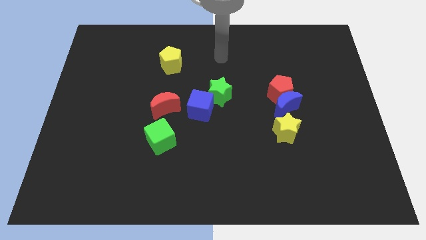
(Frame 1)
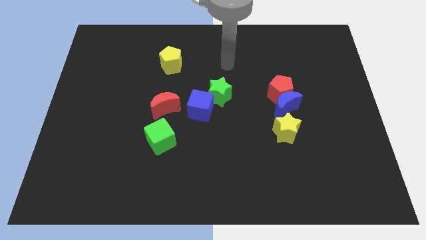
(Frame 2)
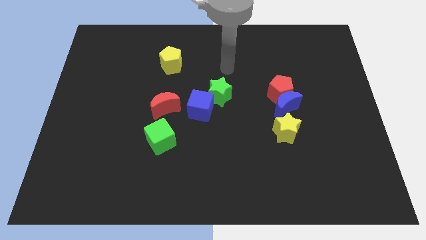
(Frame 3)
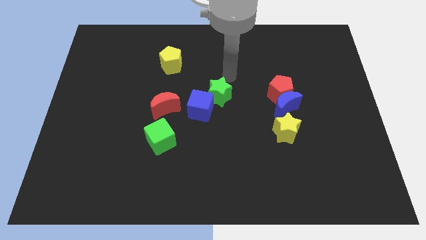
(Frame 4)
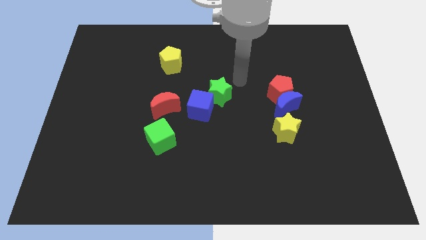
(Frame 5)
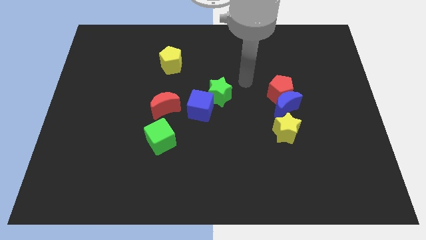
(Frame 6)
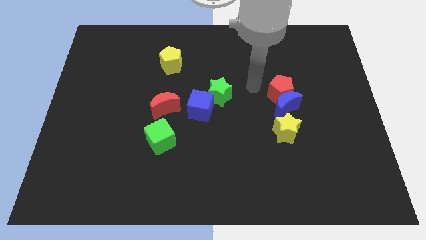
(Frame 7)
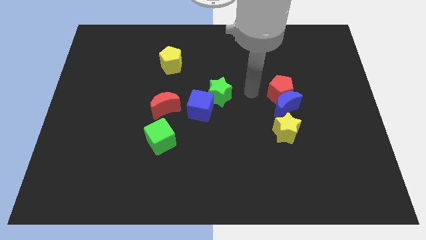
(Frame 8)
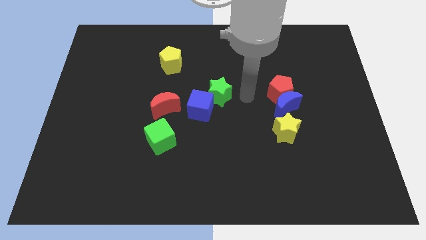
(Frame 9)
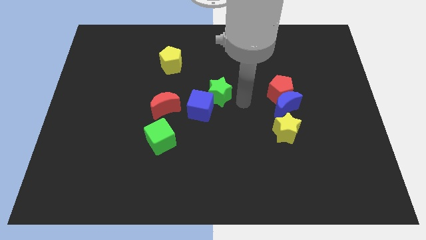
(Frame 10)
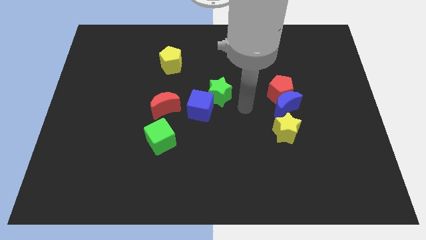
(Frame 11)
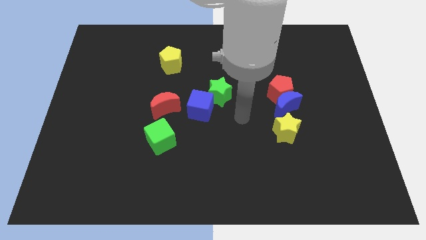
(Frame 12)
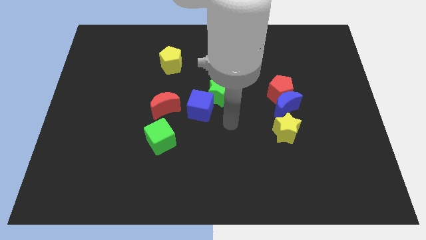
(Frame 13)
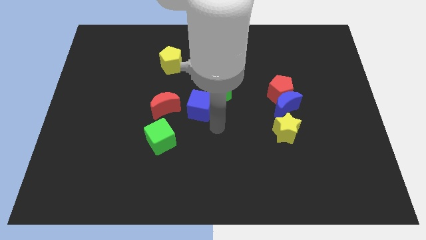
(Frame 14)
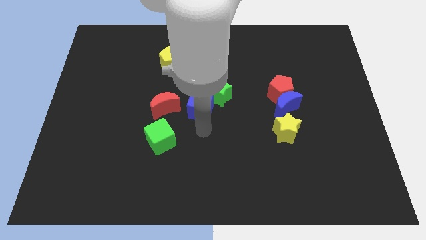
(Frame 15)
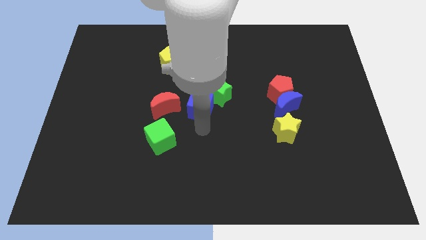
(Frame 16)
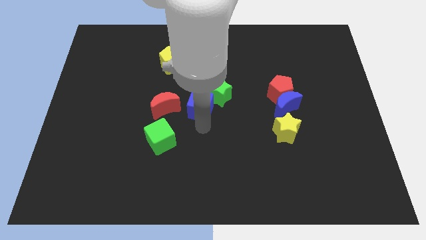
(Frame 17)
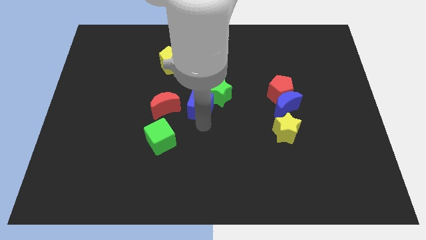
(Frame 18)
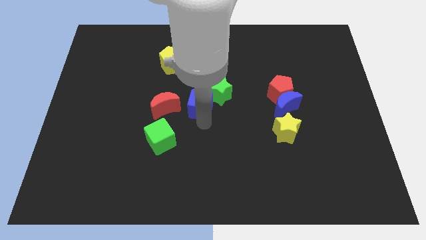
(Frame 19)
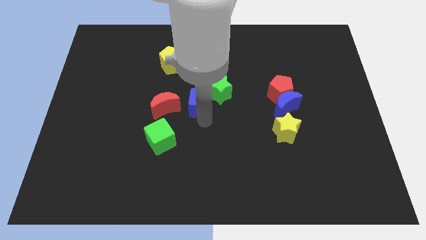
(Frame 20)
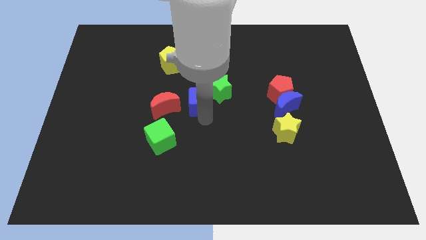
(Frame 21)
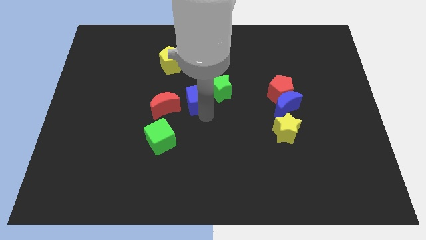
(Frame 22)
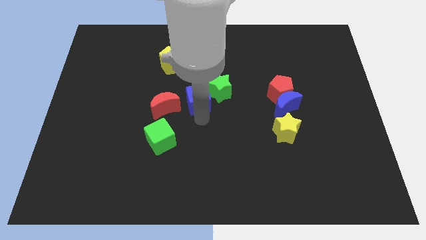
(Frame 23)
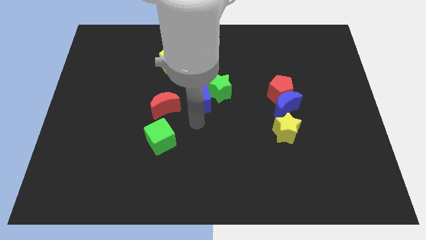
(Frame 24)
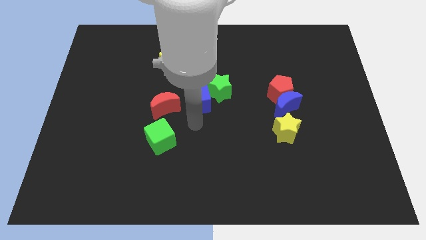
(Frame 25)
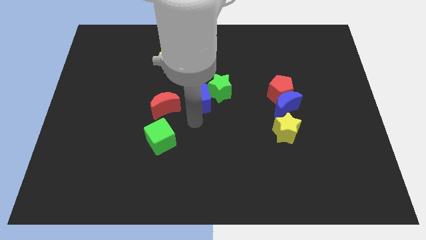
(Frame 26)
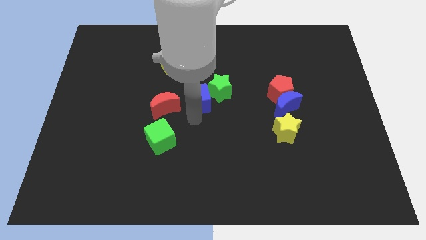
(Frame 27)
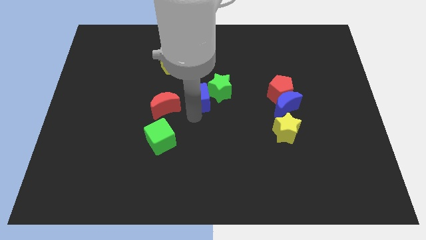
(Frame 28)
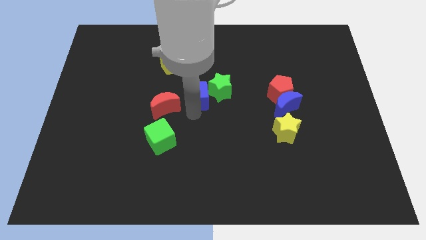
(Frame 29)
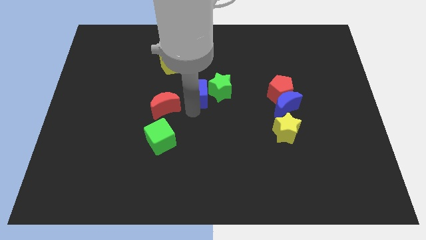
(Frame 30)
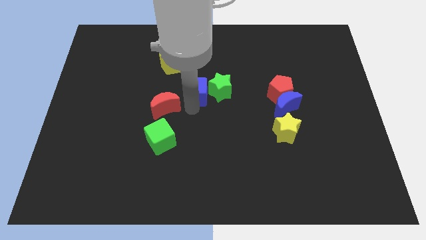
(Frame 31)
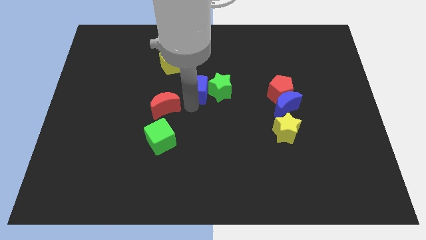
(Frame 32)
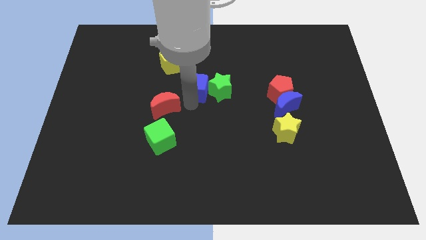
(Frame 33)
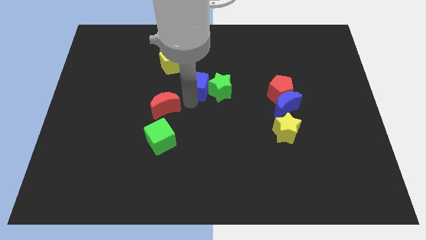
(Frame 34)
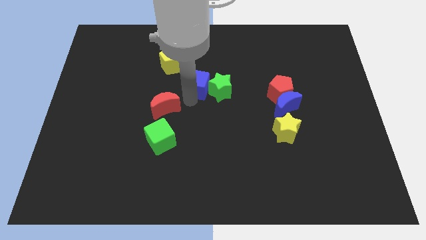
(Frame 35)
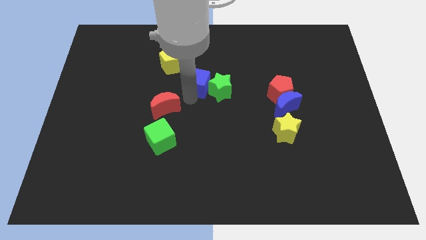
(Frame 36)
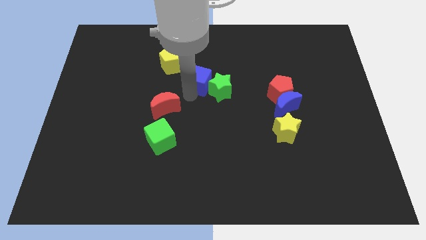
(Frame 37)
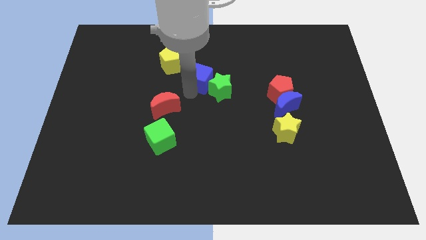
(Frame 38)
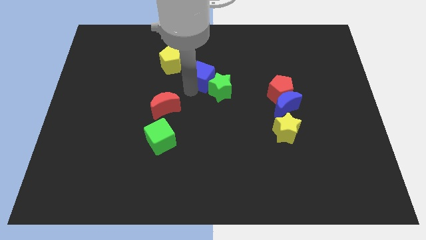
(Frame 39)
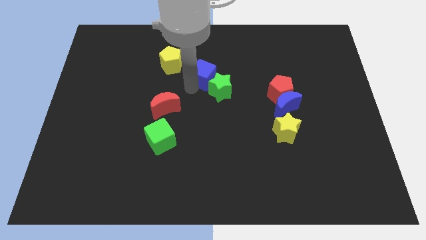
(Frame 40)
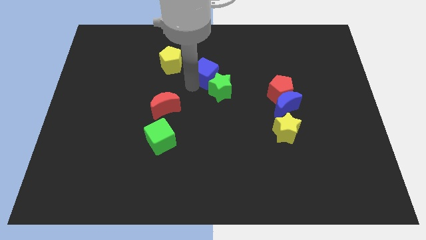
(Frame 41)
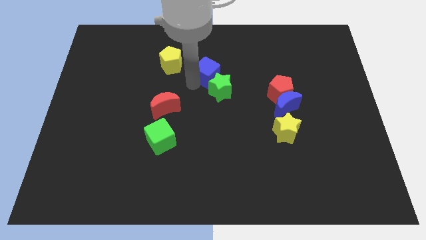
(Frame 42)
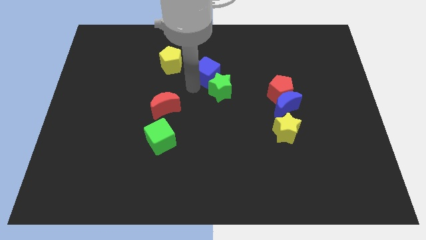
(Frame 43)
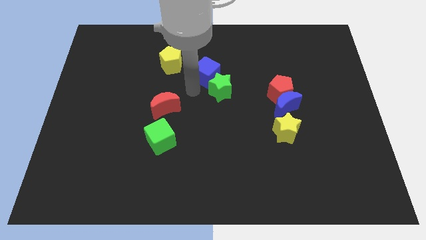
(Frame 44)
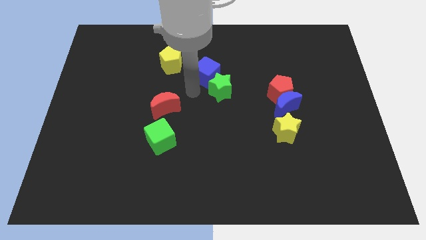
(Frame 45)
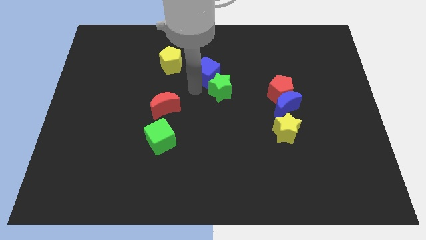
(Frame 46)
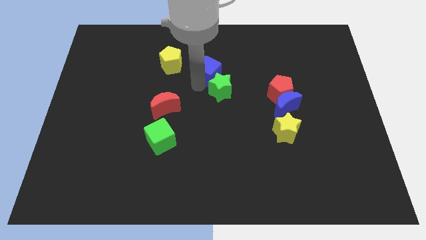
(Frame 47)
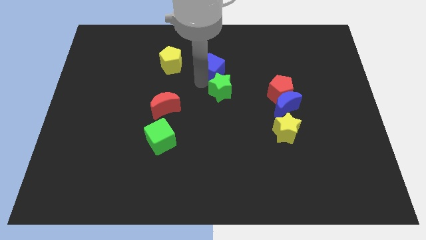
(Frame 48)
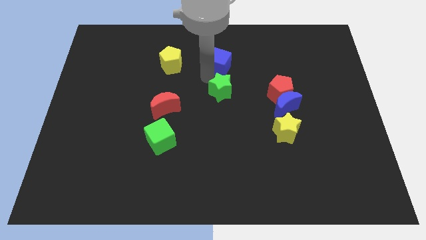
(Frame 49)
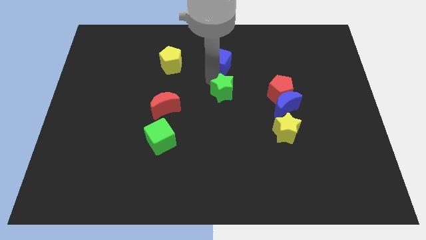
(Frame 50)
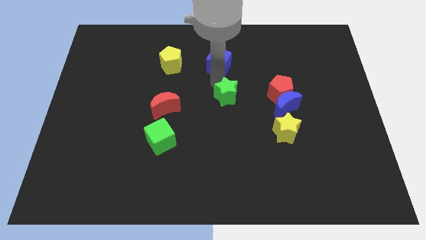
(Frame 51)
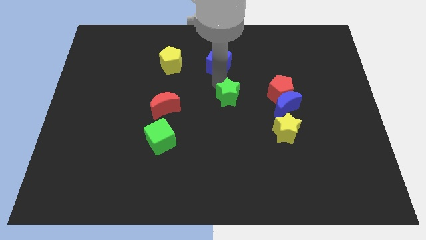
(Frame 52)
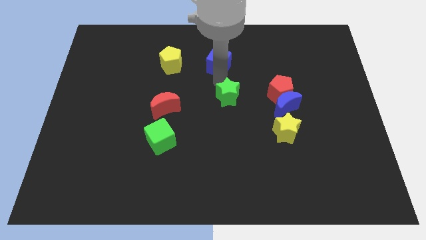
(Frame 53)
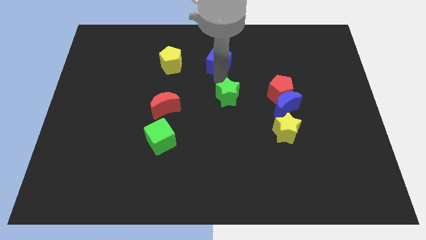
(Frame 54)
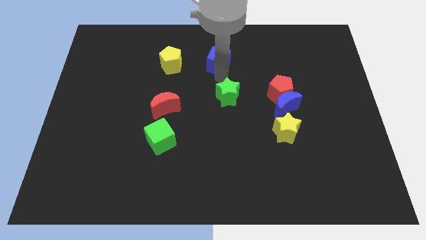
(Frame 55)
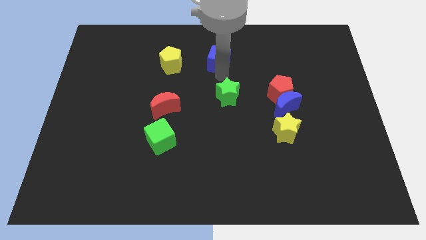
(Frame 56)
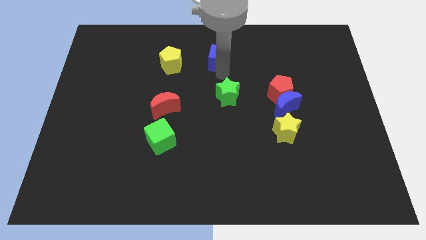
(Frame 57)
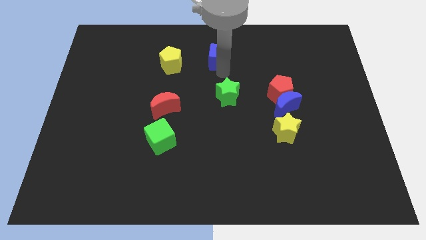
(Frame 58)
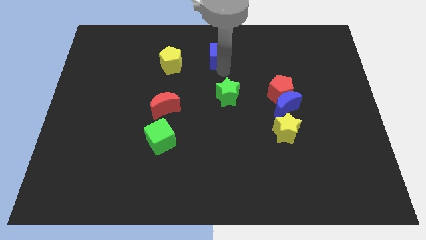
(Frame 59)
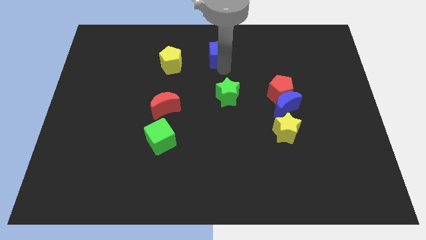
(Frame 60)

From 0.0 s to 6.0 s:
put the blue cube to the towards your base

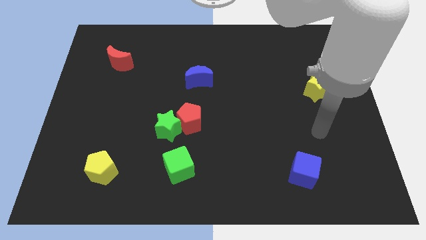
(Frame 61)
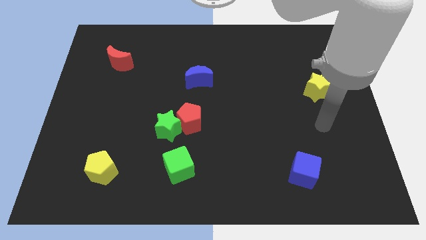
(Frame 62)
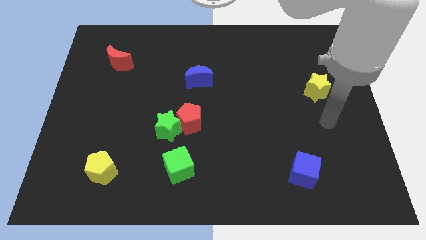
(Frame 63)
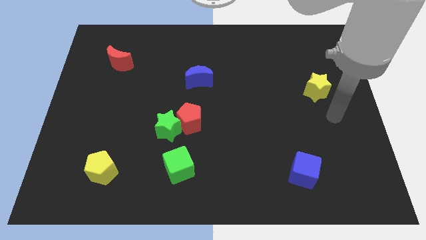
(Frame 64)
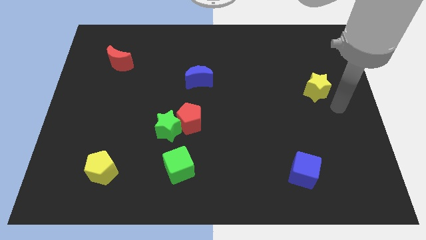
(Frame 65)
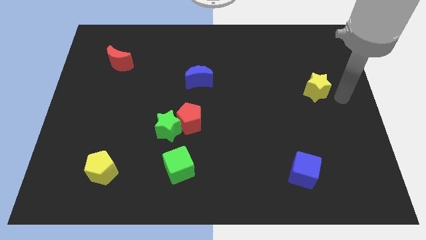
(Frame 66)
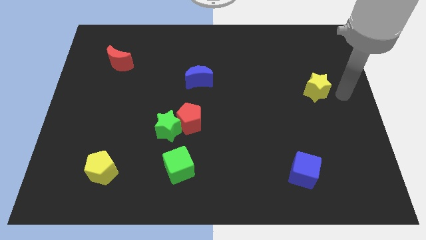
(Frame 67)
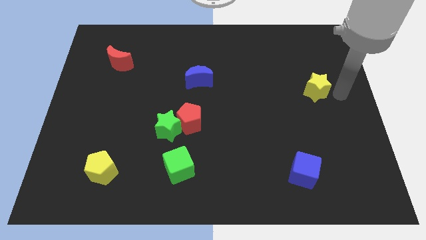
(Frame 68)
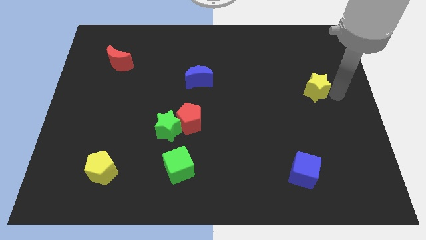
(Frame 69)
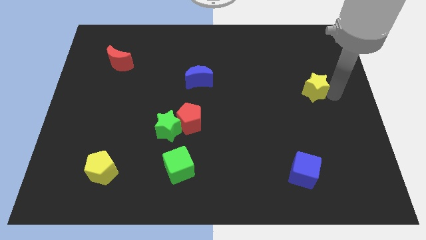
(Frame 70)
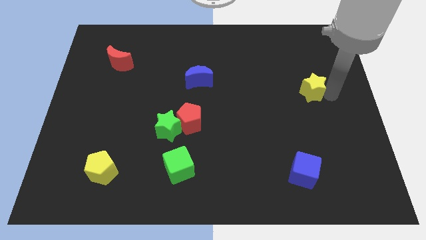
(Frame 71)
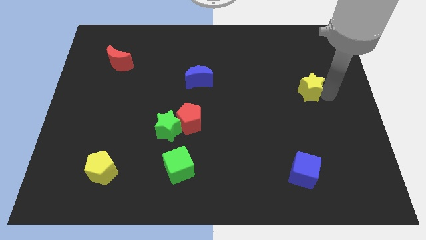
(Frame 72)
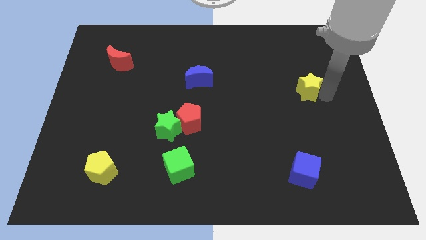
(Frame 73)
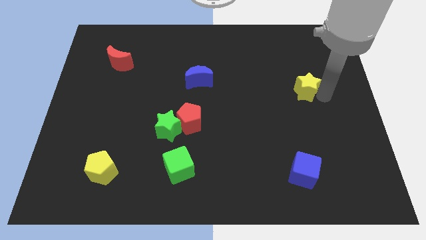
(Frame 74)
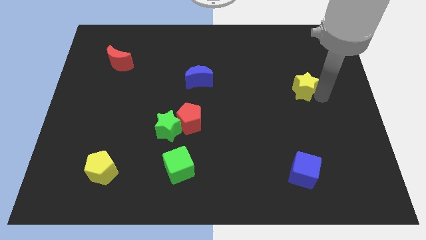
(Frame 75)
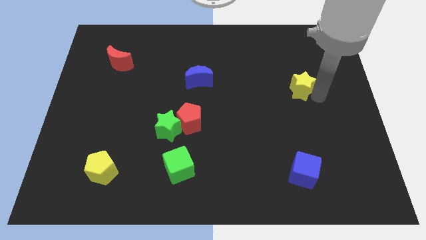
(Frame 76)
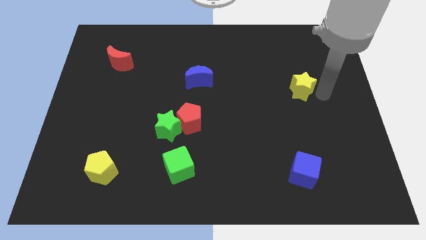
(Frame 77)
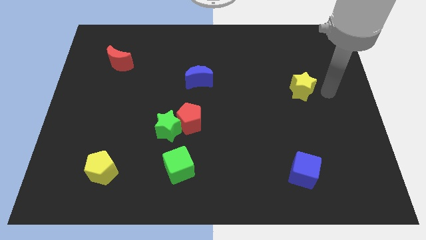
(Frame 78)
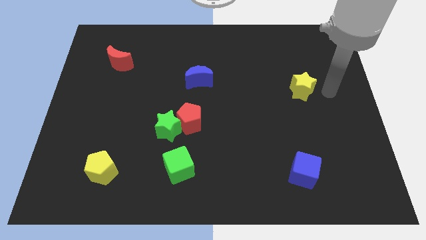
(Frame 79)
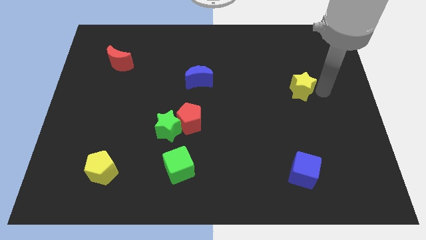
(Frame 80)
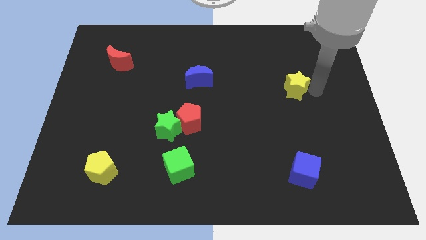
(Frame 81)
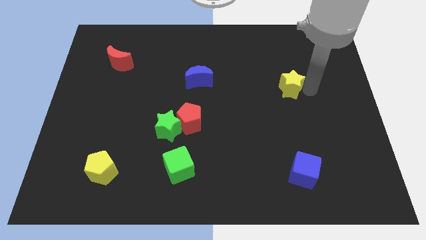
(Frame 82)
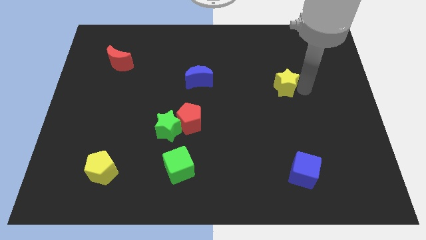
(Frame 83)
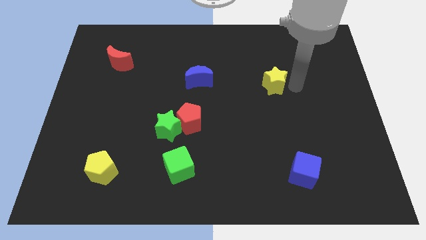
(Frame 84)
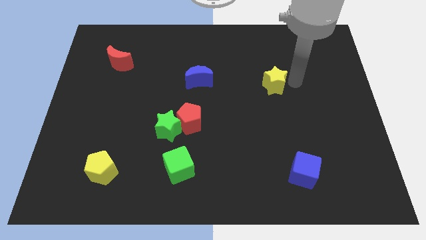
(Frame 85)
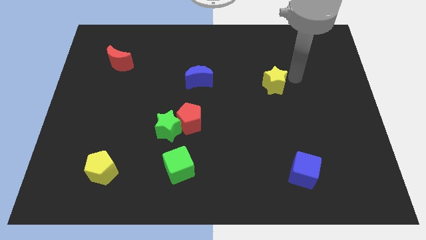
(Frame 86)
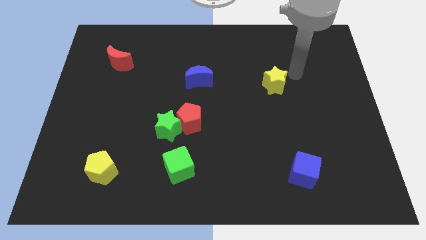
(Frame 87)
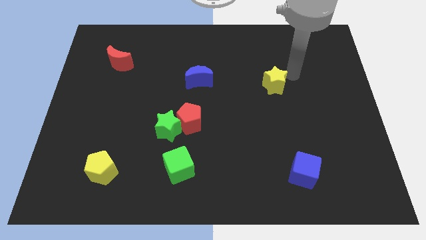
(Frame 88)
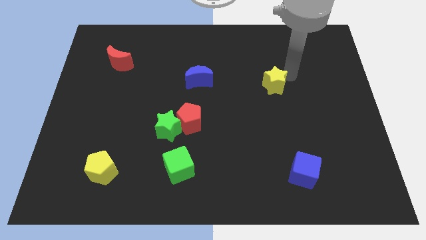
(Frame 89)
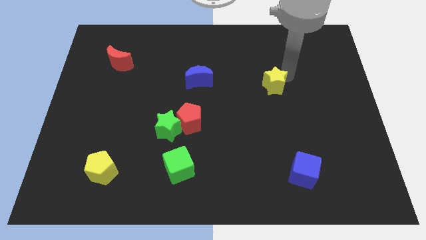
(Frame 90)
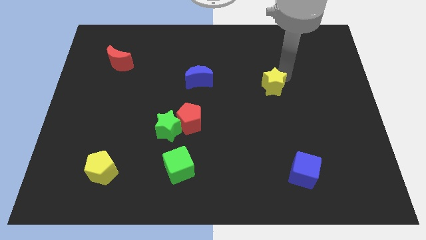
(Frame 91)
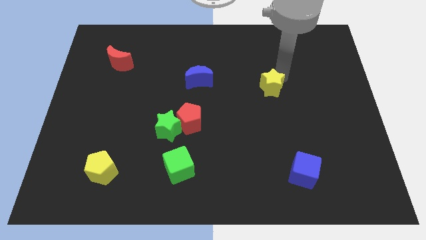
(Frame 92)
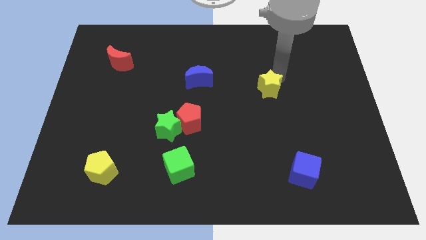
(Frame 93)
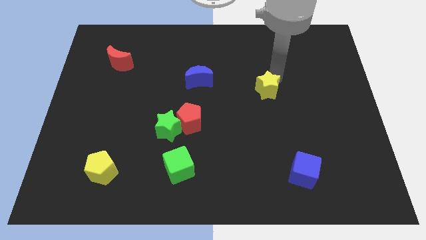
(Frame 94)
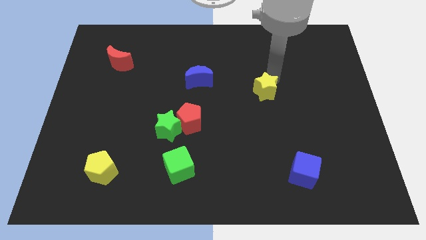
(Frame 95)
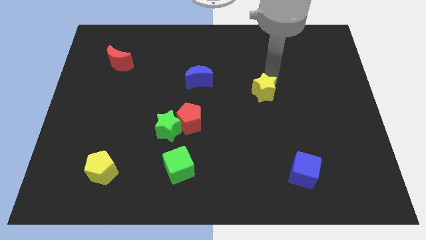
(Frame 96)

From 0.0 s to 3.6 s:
move the yellow star to the middle
